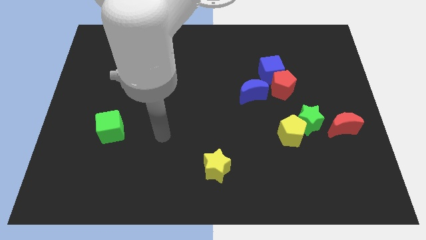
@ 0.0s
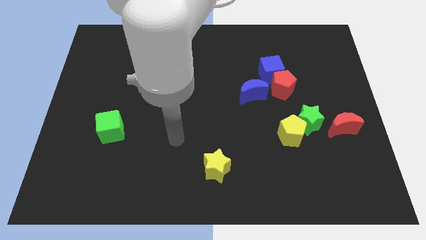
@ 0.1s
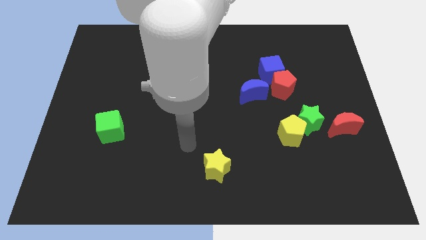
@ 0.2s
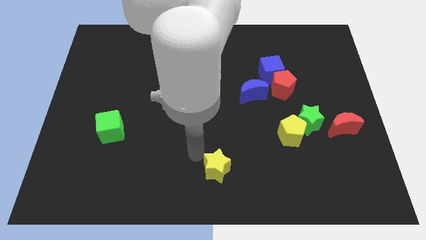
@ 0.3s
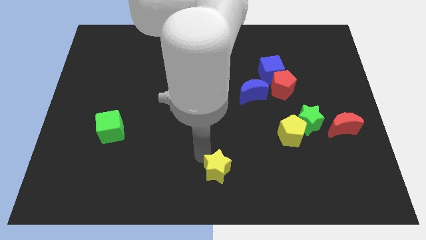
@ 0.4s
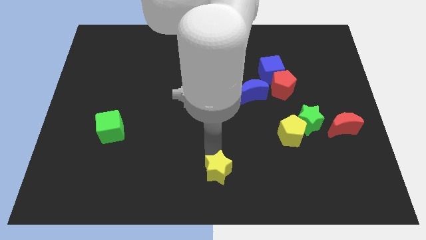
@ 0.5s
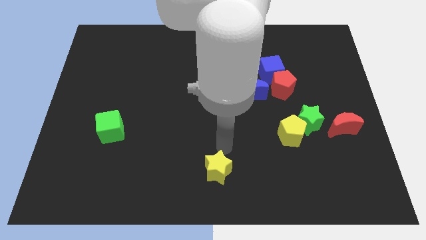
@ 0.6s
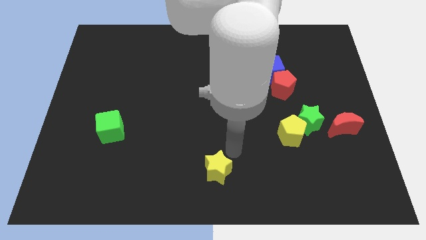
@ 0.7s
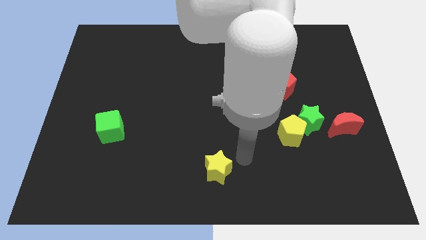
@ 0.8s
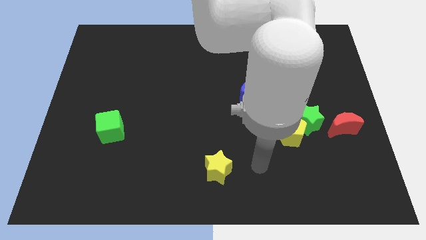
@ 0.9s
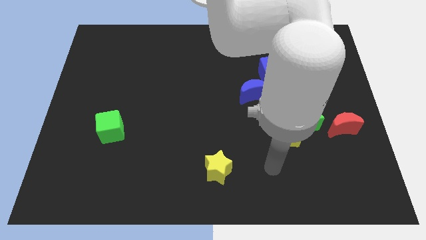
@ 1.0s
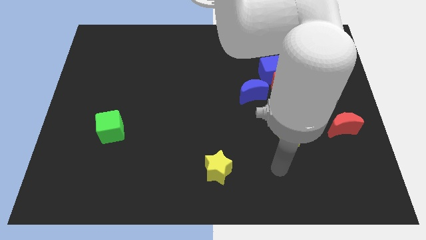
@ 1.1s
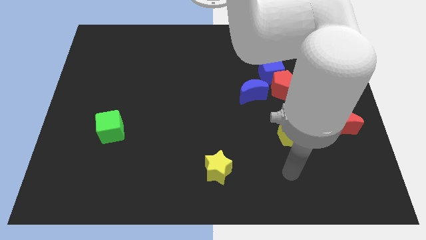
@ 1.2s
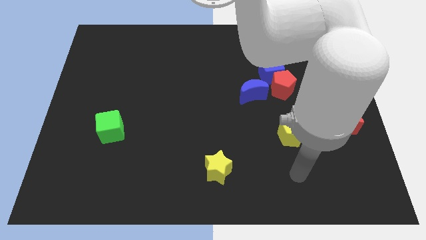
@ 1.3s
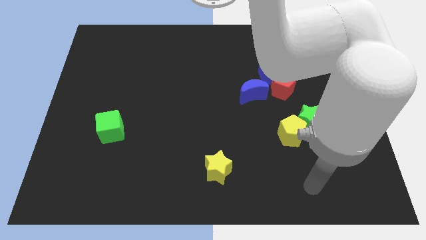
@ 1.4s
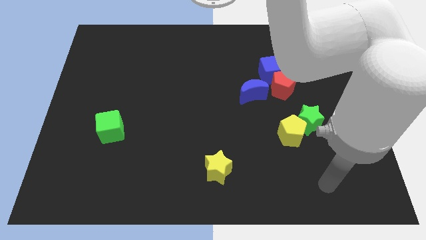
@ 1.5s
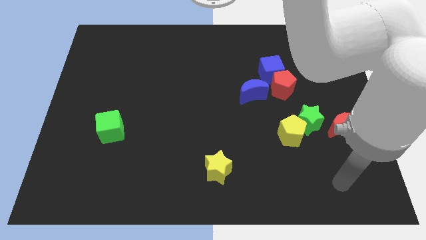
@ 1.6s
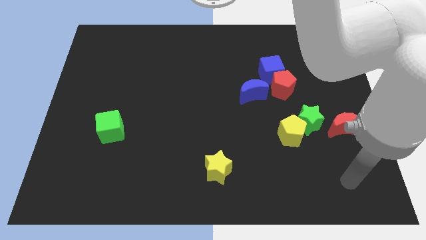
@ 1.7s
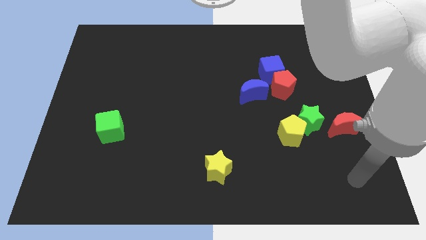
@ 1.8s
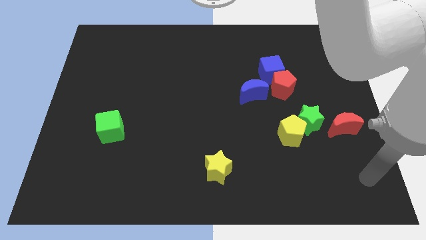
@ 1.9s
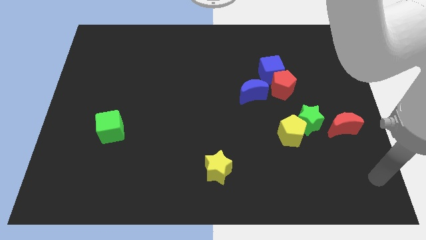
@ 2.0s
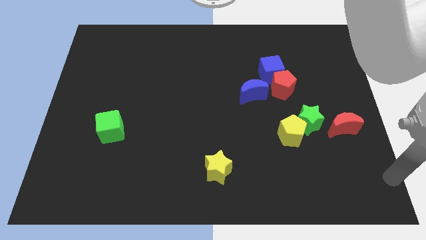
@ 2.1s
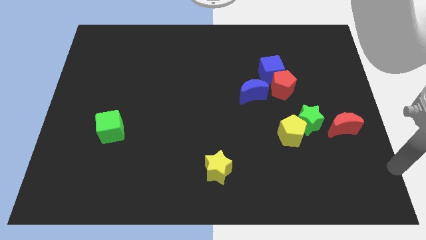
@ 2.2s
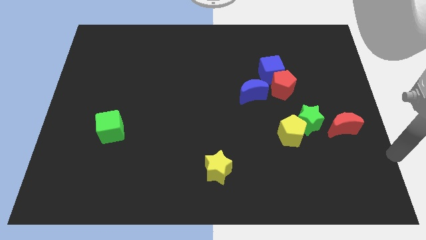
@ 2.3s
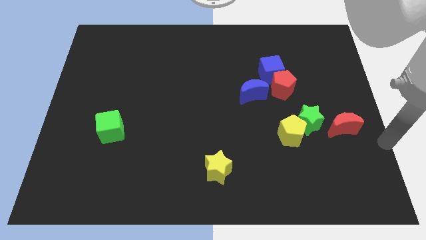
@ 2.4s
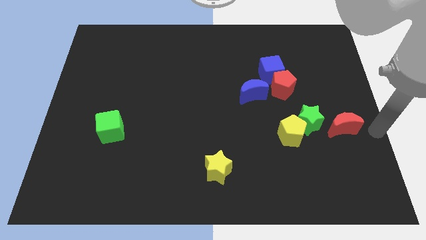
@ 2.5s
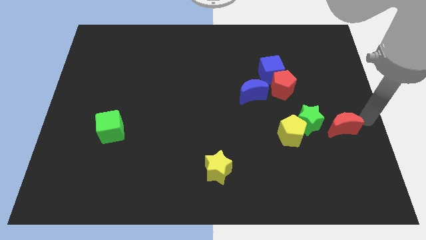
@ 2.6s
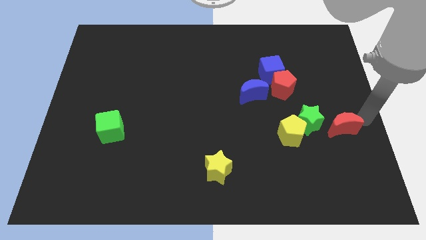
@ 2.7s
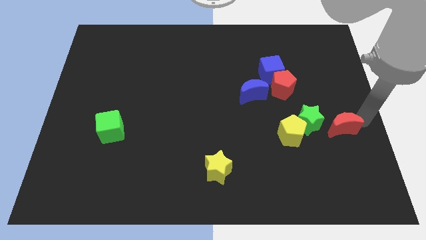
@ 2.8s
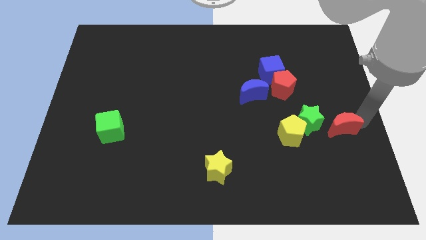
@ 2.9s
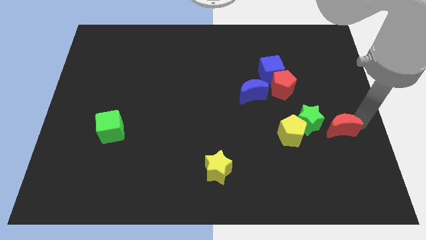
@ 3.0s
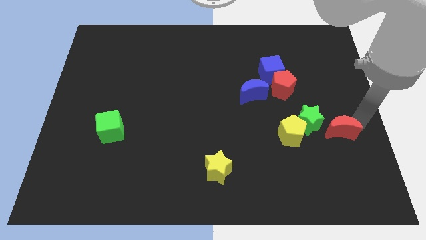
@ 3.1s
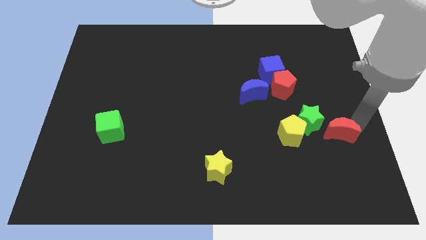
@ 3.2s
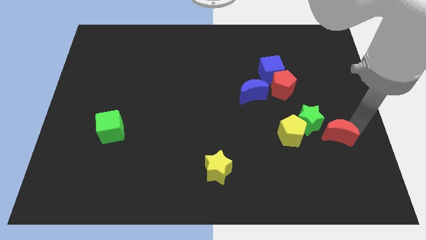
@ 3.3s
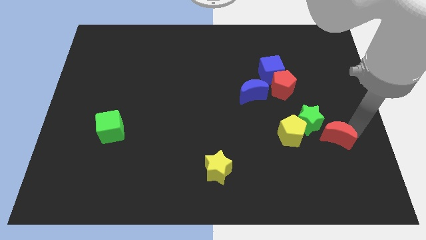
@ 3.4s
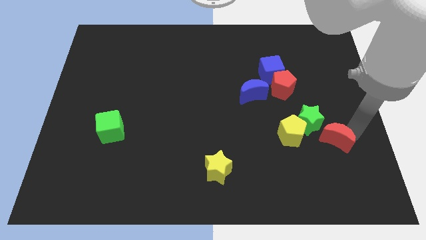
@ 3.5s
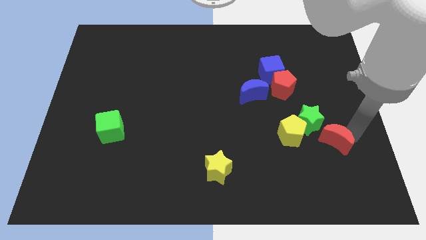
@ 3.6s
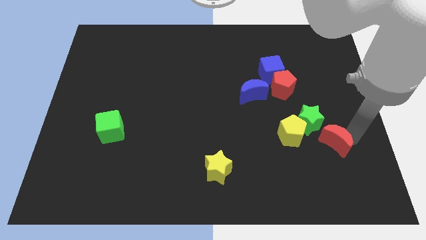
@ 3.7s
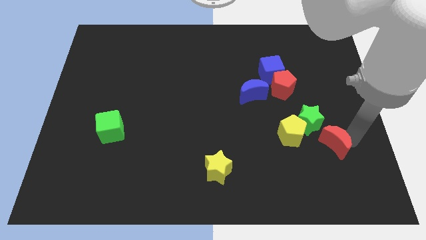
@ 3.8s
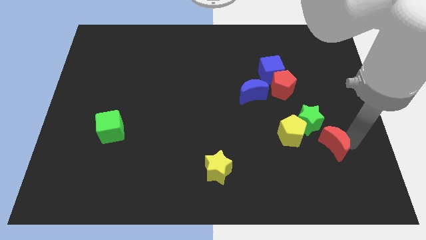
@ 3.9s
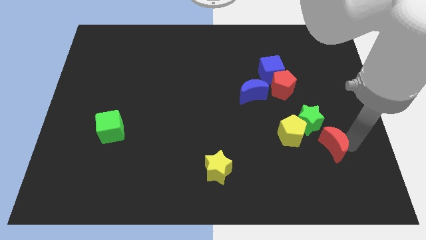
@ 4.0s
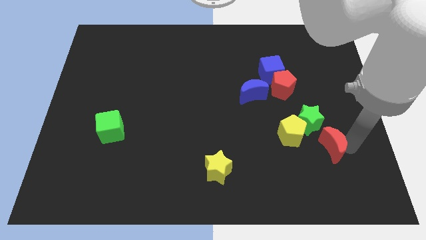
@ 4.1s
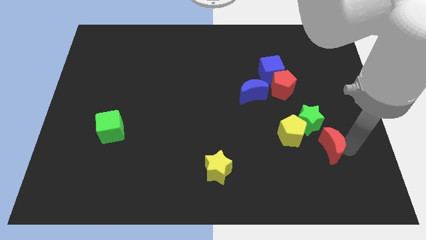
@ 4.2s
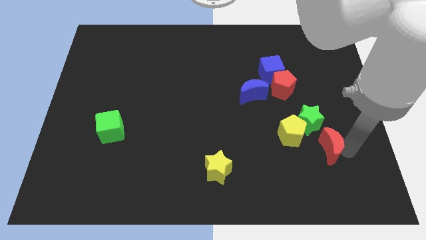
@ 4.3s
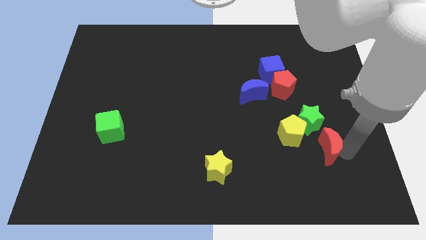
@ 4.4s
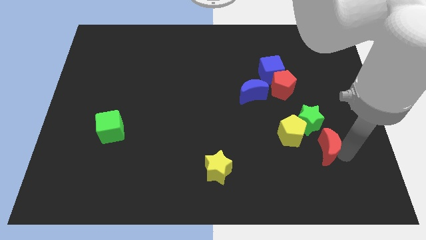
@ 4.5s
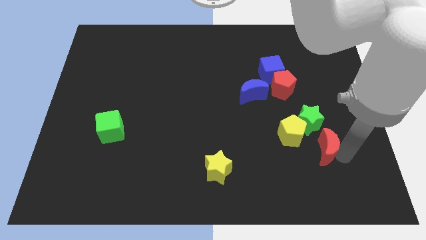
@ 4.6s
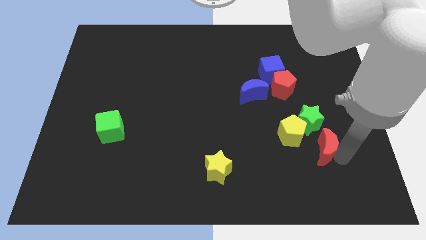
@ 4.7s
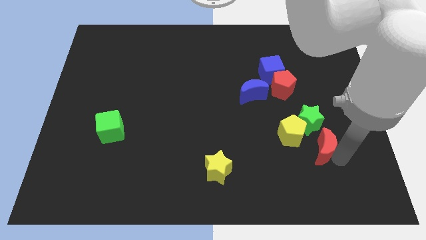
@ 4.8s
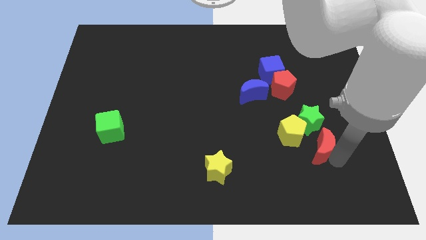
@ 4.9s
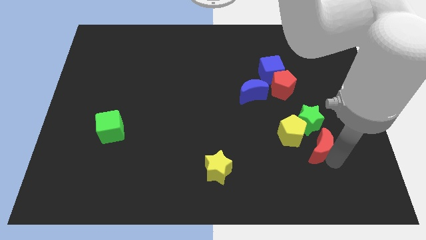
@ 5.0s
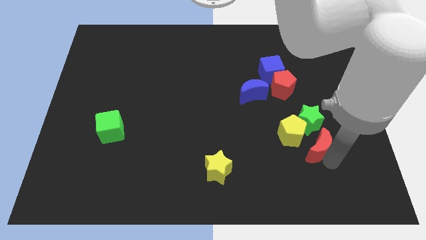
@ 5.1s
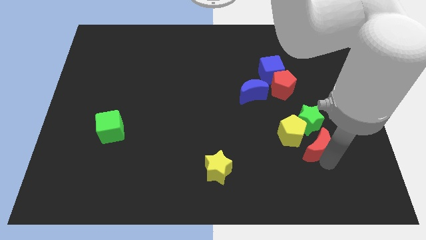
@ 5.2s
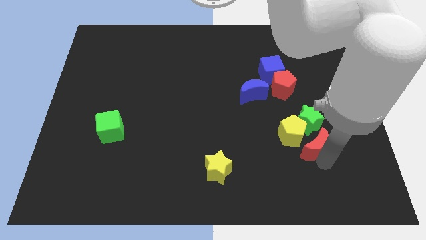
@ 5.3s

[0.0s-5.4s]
move the red moon to the yellow pentagon

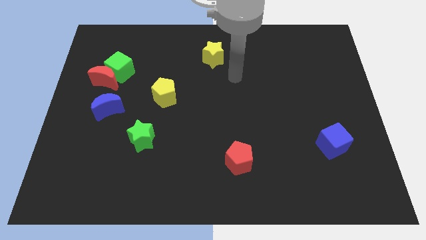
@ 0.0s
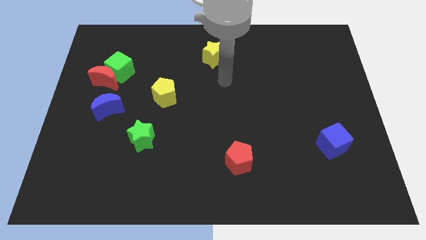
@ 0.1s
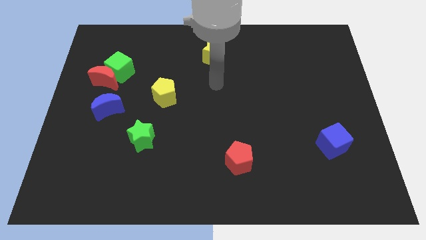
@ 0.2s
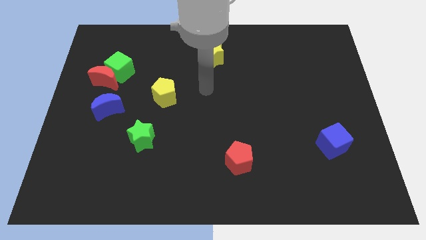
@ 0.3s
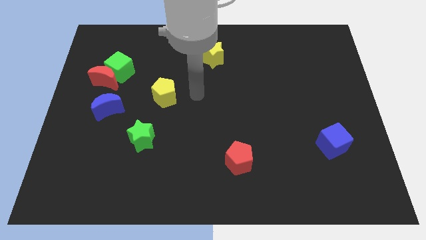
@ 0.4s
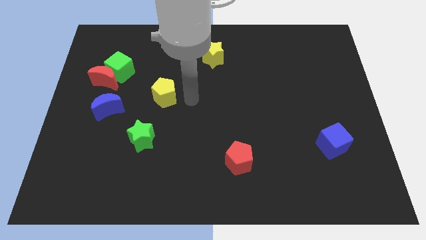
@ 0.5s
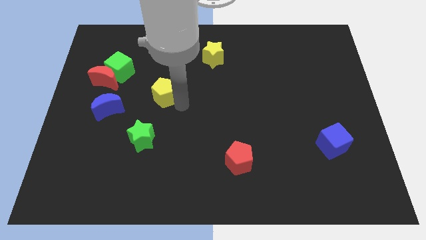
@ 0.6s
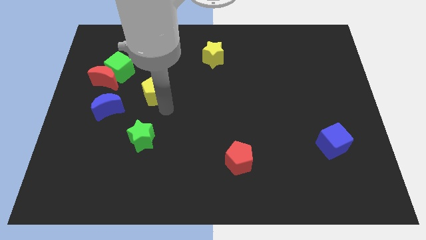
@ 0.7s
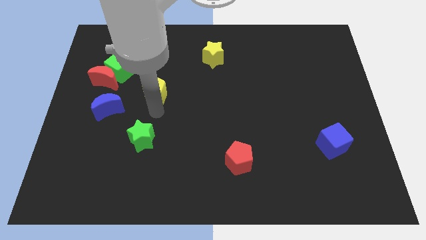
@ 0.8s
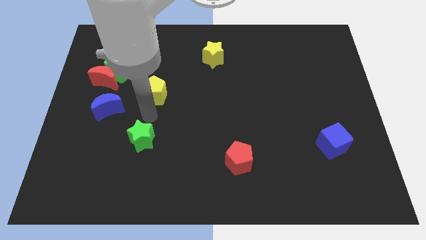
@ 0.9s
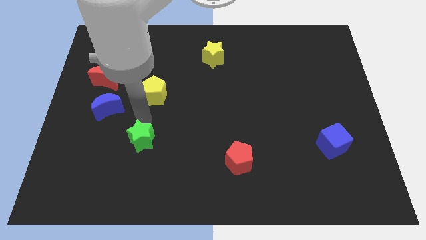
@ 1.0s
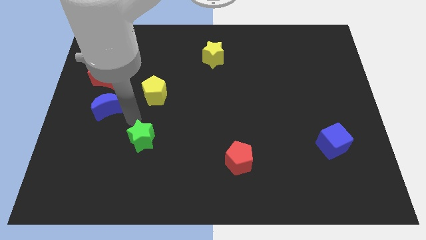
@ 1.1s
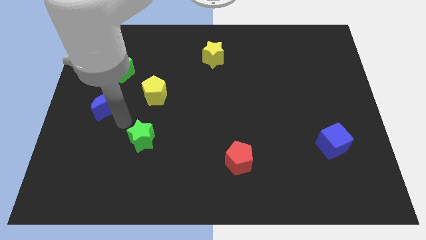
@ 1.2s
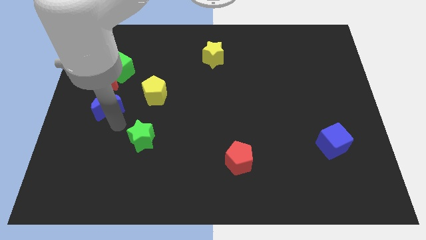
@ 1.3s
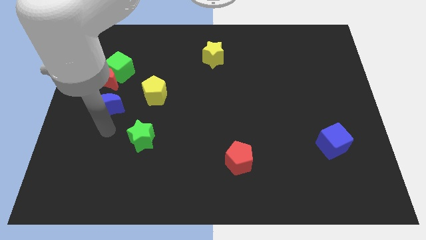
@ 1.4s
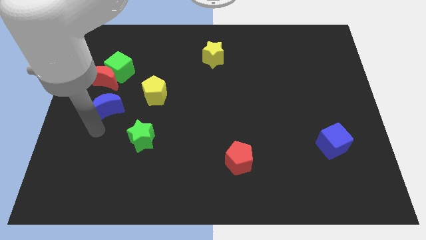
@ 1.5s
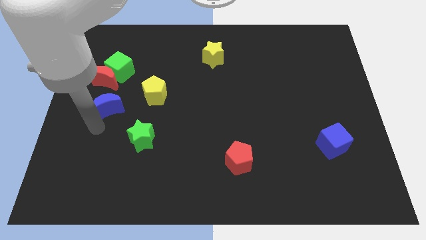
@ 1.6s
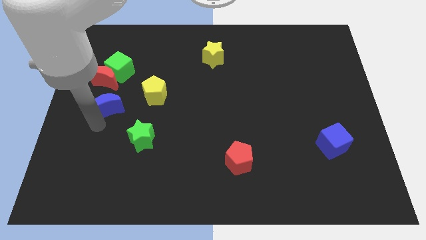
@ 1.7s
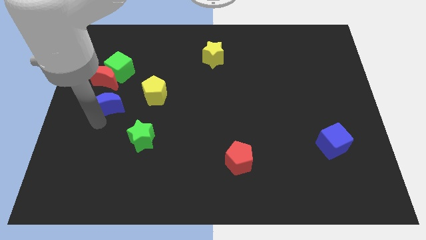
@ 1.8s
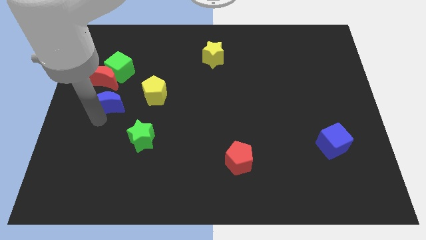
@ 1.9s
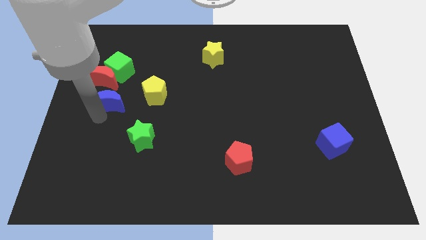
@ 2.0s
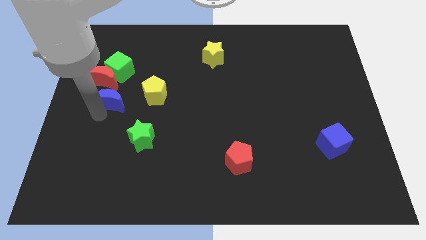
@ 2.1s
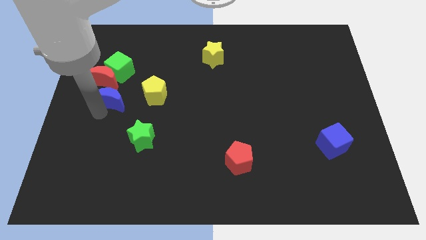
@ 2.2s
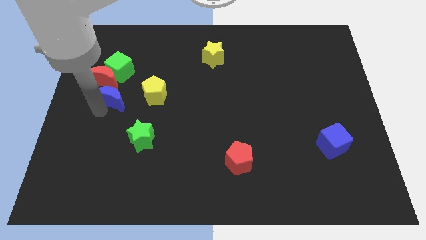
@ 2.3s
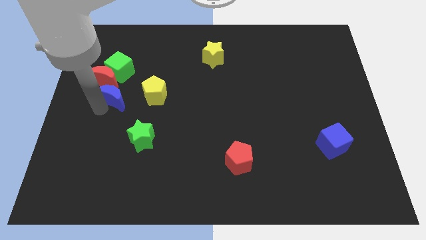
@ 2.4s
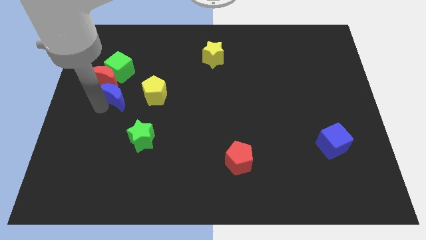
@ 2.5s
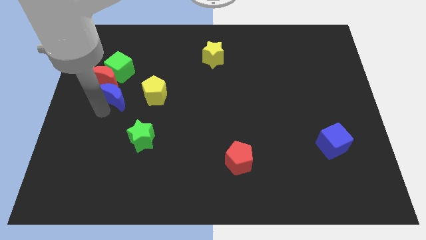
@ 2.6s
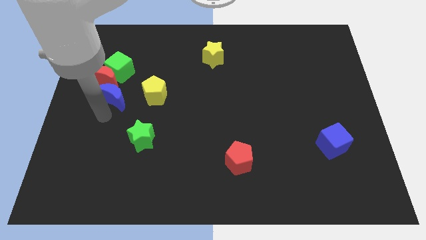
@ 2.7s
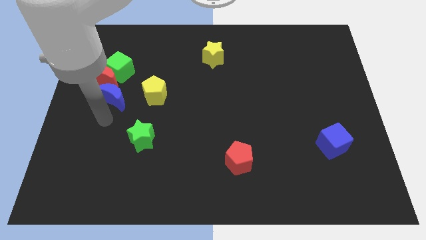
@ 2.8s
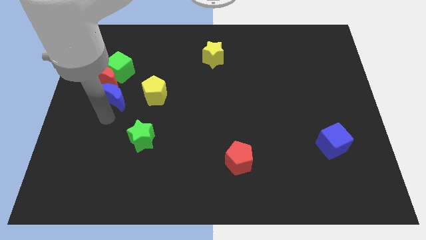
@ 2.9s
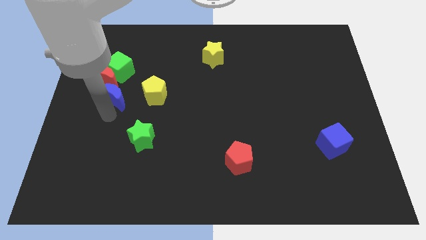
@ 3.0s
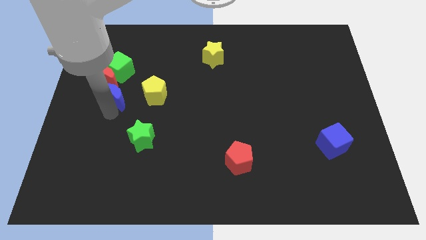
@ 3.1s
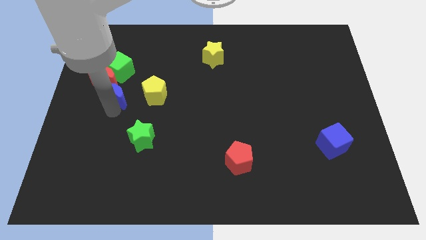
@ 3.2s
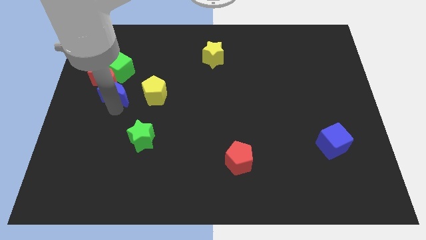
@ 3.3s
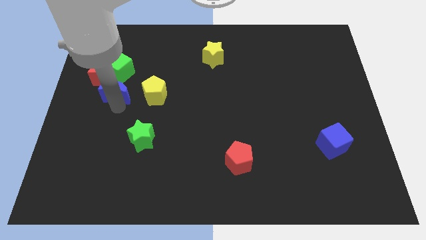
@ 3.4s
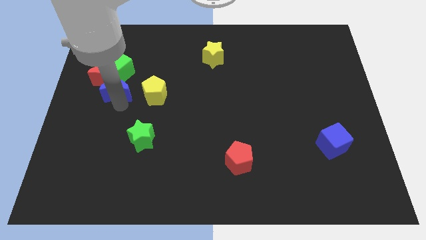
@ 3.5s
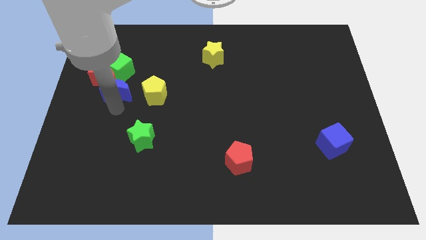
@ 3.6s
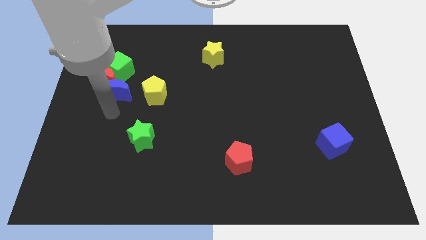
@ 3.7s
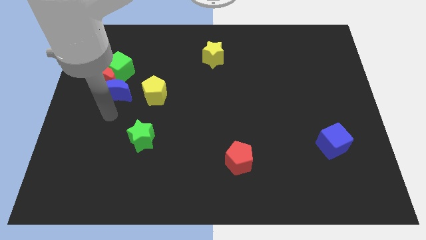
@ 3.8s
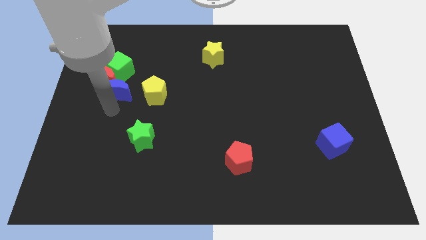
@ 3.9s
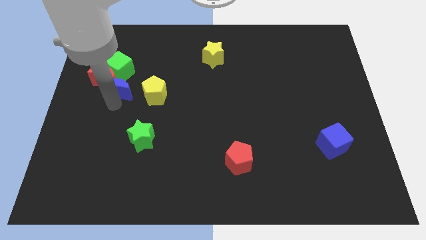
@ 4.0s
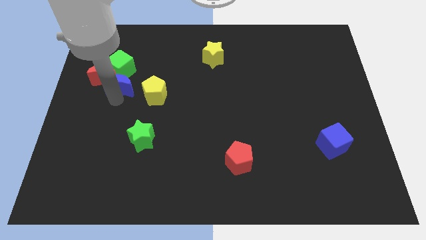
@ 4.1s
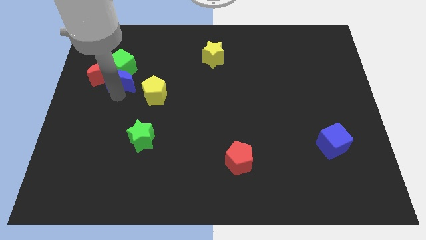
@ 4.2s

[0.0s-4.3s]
put the blue moon to the green cube
